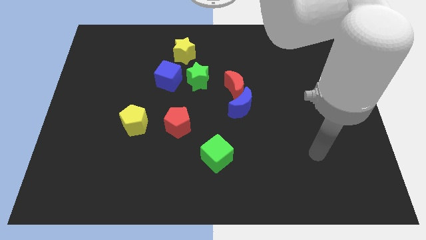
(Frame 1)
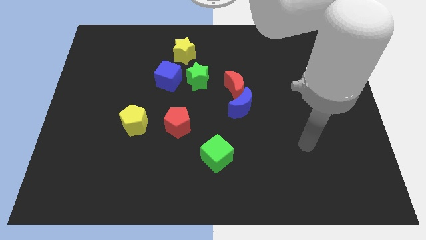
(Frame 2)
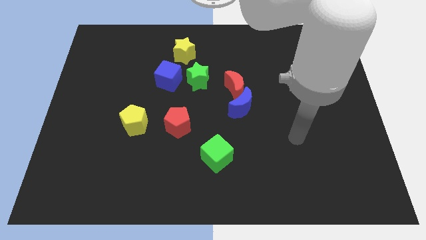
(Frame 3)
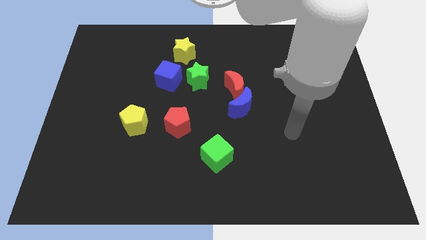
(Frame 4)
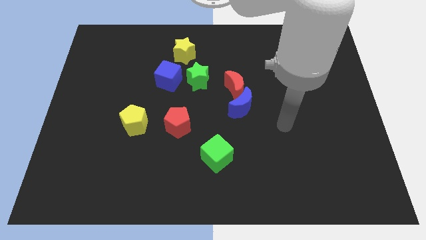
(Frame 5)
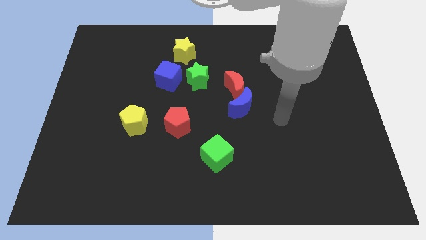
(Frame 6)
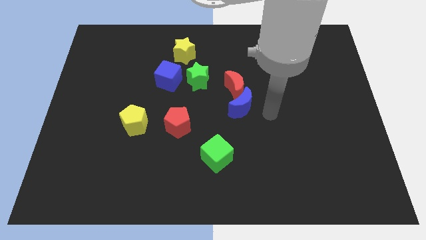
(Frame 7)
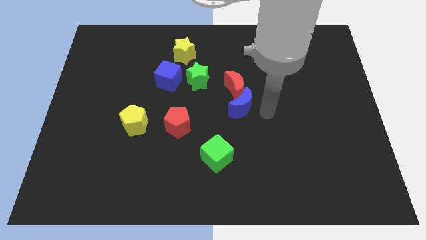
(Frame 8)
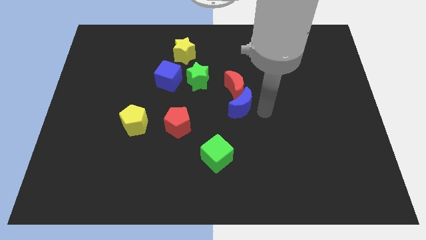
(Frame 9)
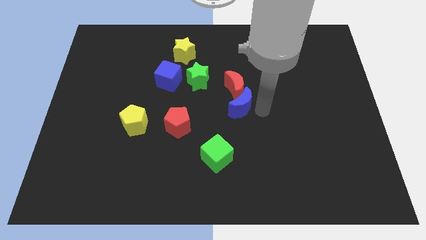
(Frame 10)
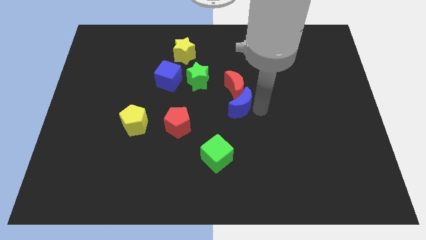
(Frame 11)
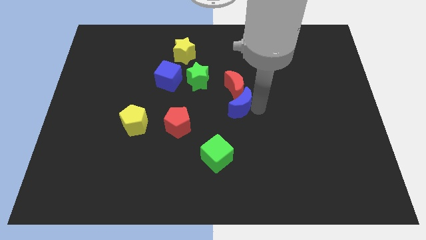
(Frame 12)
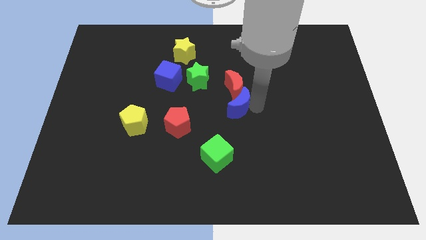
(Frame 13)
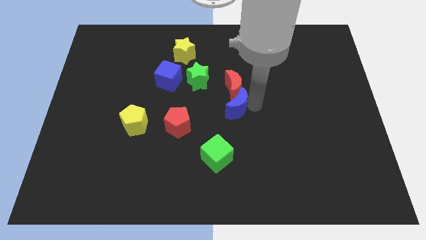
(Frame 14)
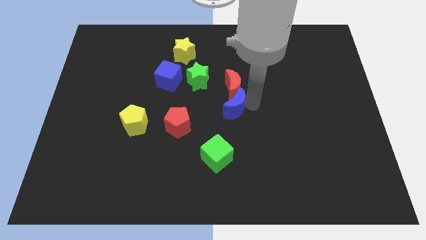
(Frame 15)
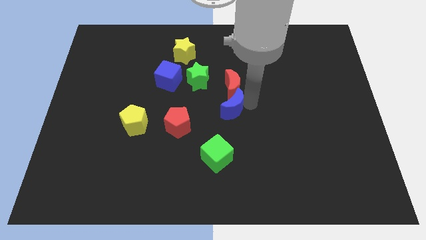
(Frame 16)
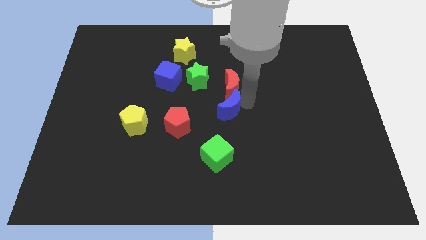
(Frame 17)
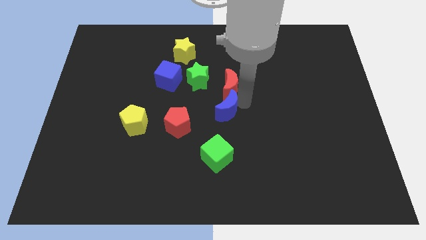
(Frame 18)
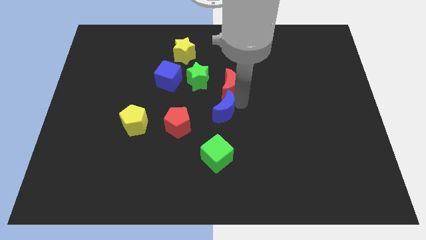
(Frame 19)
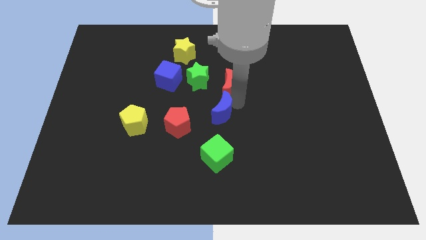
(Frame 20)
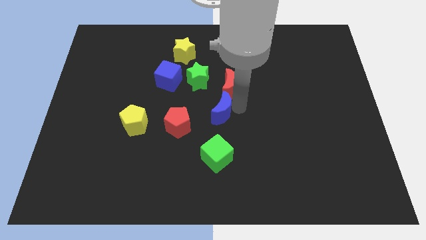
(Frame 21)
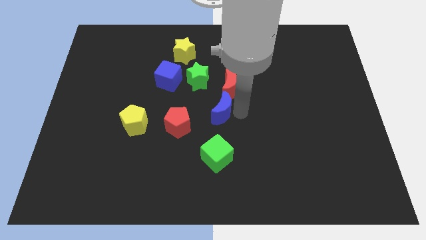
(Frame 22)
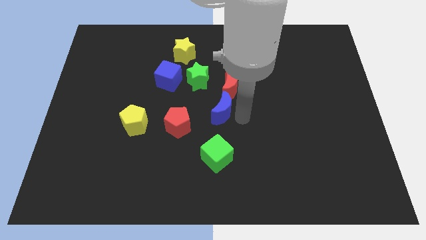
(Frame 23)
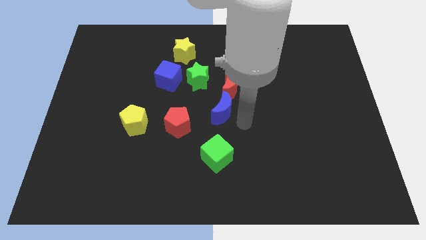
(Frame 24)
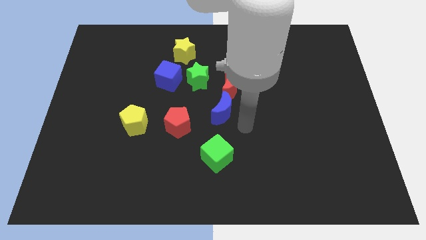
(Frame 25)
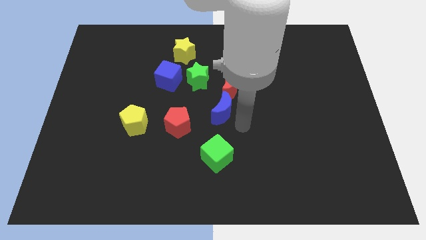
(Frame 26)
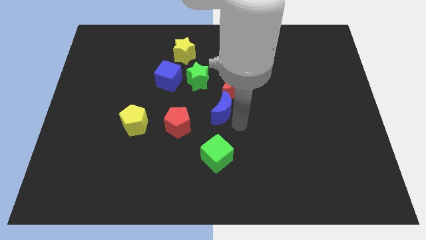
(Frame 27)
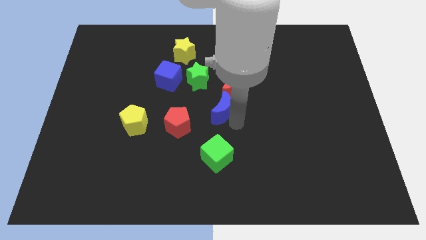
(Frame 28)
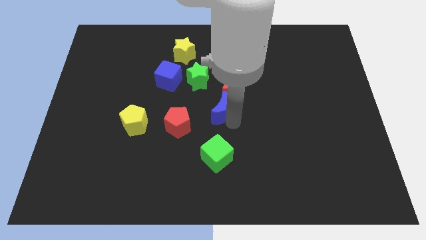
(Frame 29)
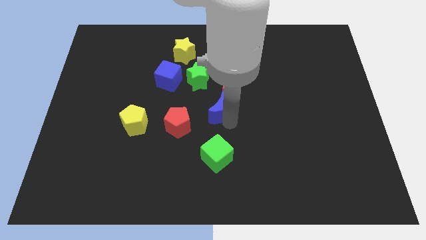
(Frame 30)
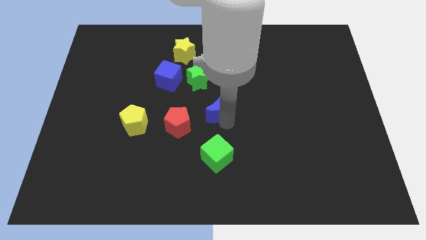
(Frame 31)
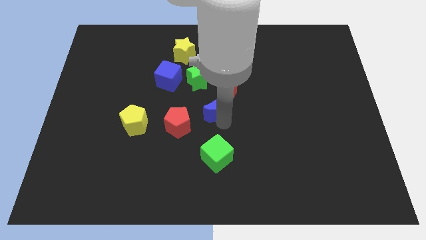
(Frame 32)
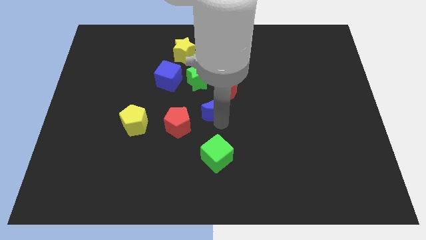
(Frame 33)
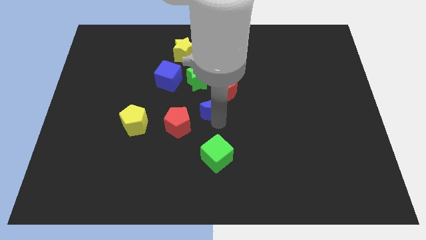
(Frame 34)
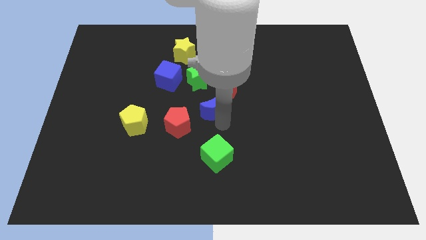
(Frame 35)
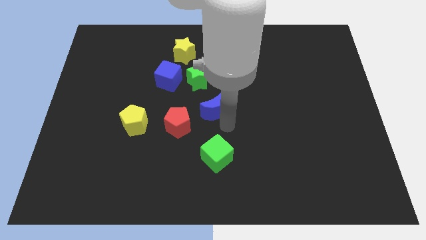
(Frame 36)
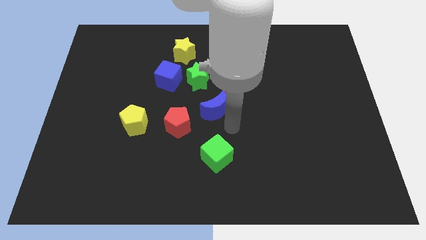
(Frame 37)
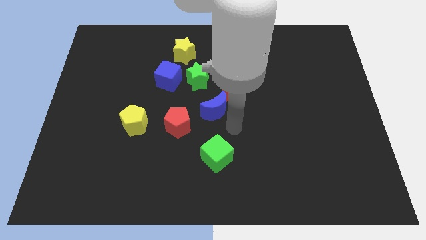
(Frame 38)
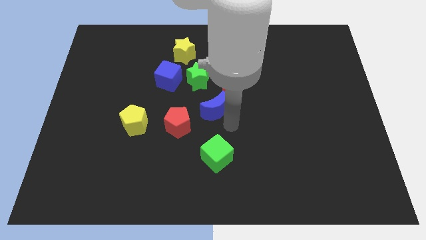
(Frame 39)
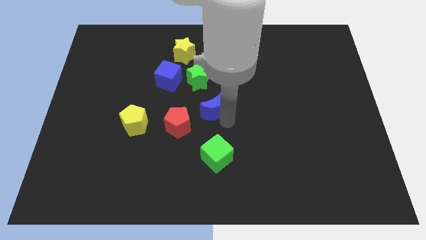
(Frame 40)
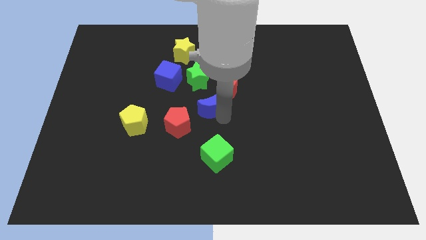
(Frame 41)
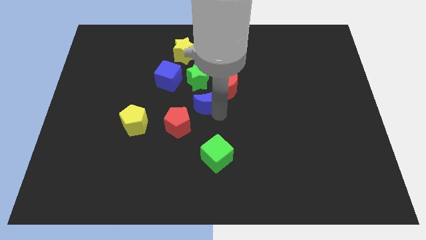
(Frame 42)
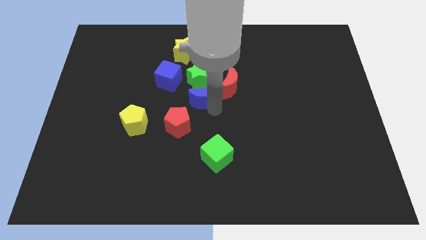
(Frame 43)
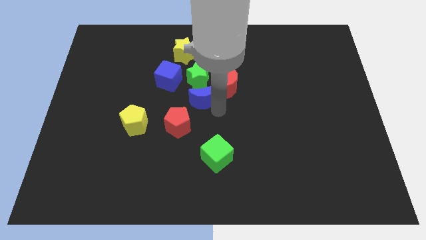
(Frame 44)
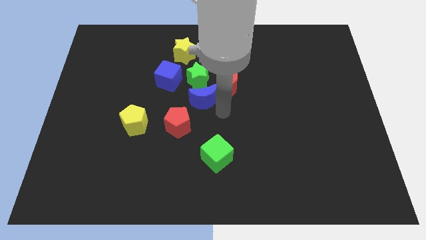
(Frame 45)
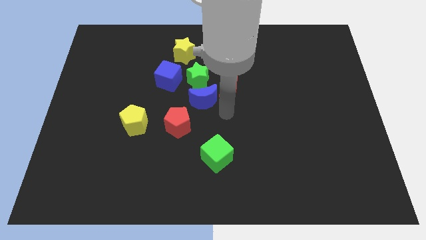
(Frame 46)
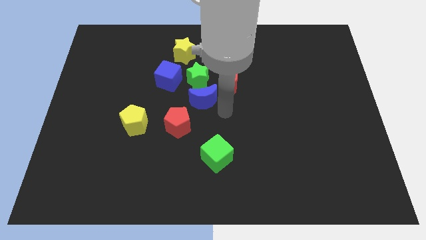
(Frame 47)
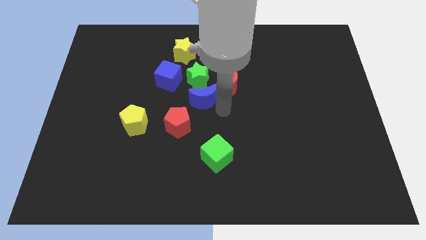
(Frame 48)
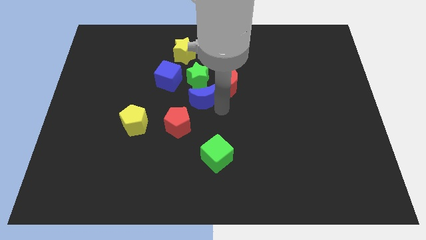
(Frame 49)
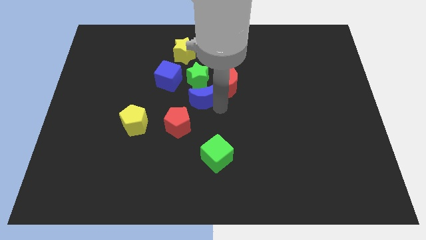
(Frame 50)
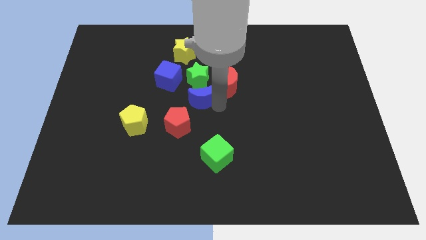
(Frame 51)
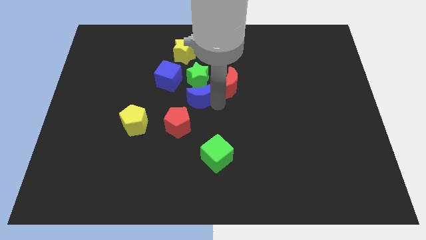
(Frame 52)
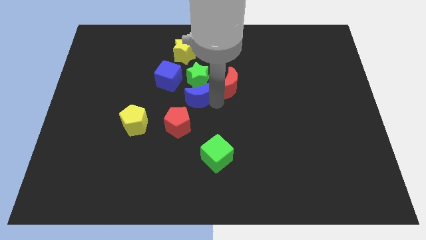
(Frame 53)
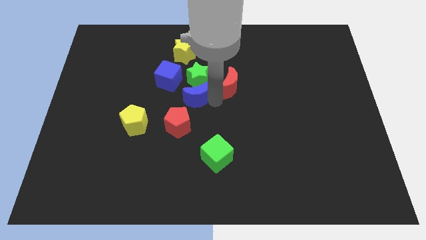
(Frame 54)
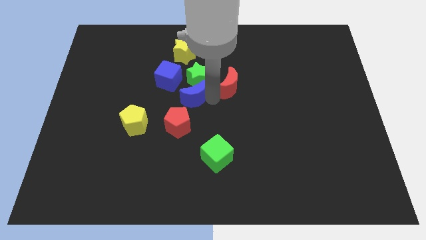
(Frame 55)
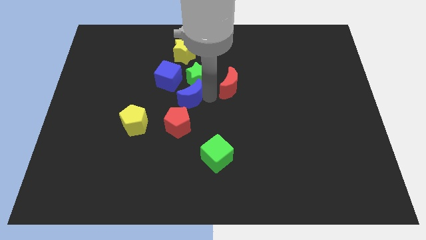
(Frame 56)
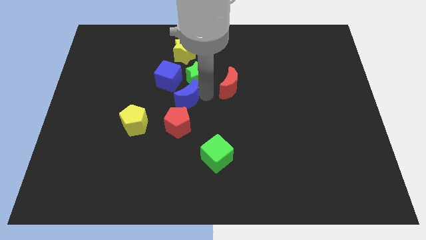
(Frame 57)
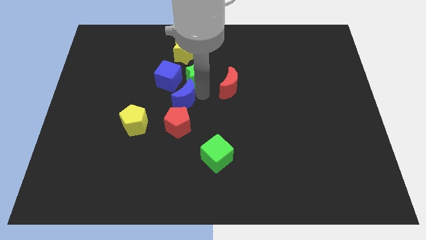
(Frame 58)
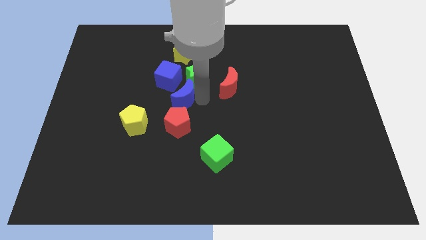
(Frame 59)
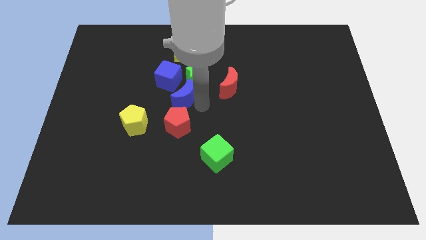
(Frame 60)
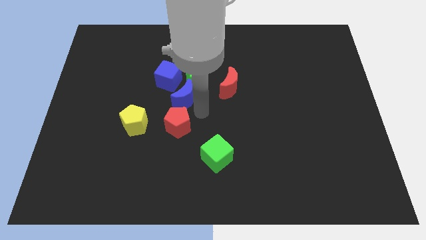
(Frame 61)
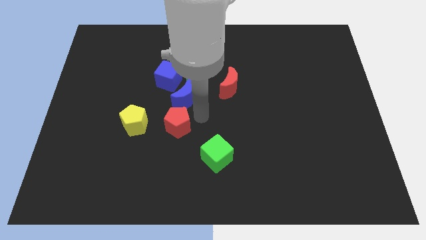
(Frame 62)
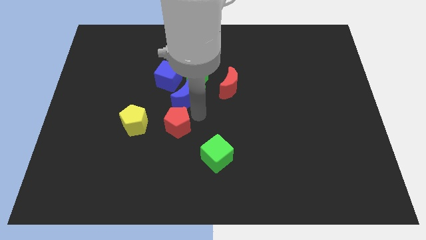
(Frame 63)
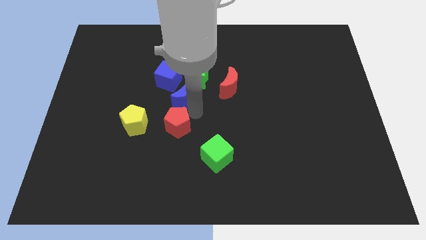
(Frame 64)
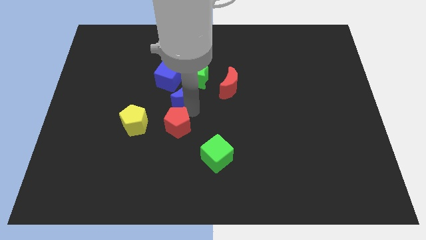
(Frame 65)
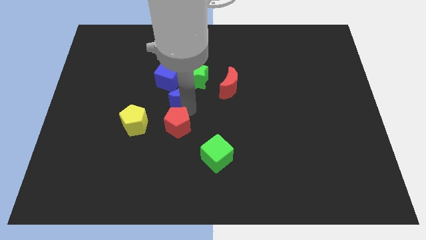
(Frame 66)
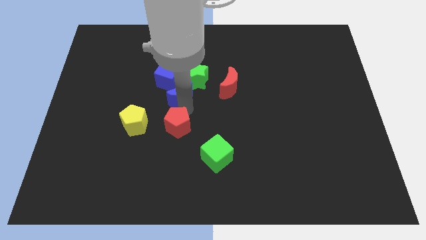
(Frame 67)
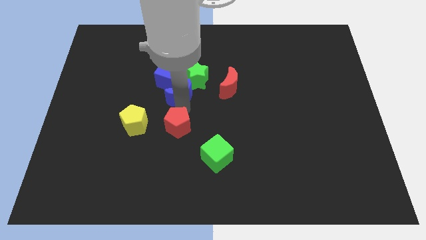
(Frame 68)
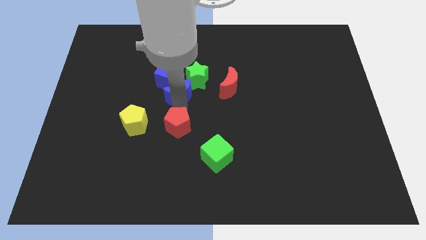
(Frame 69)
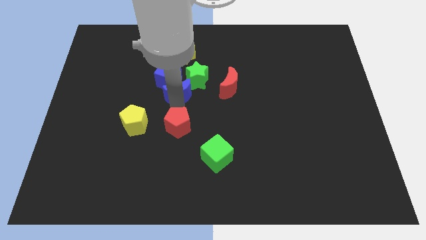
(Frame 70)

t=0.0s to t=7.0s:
push the blue moon close to the blue cube

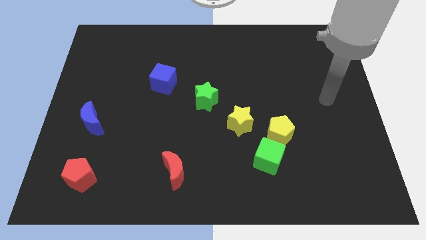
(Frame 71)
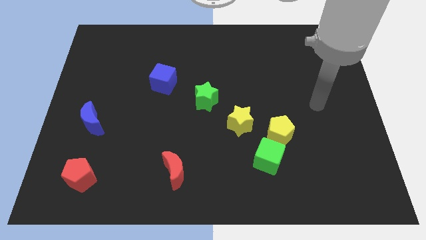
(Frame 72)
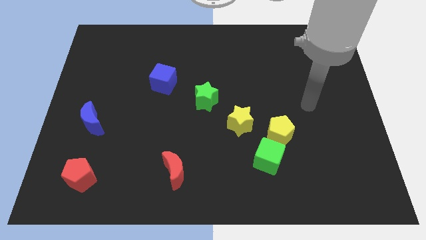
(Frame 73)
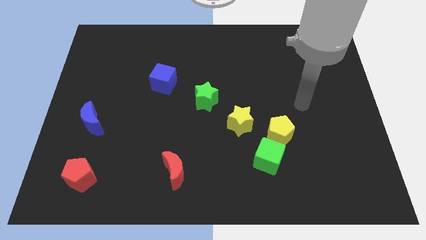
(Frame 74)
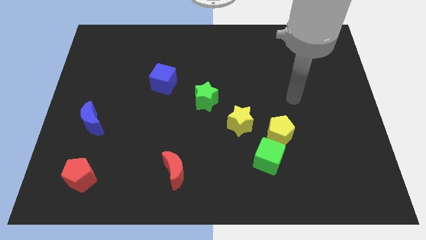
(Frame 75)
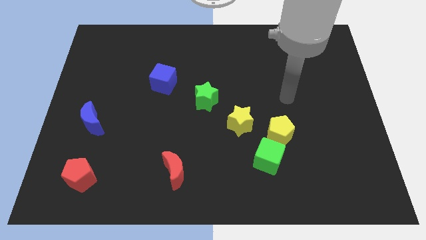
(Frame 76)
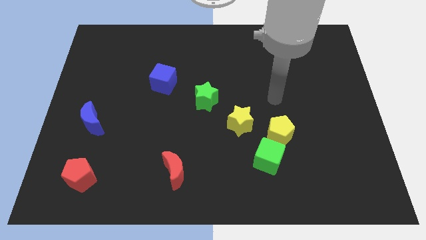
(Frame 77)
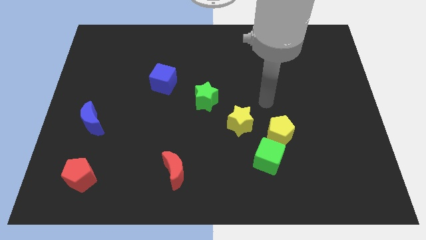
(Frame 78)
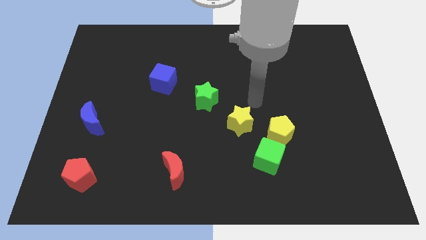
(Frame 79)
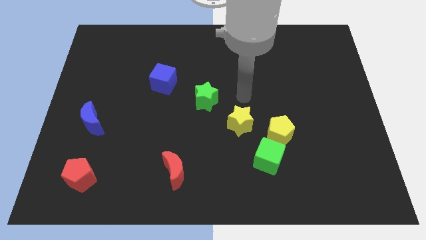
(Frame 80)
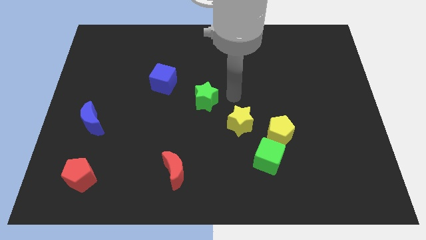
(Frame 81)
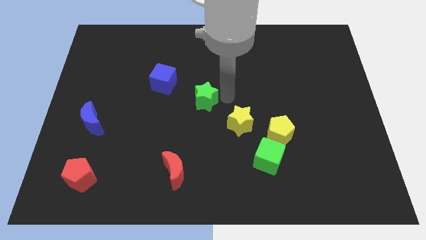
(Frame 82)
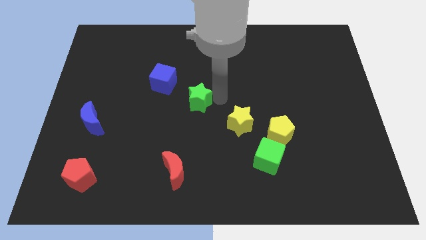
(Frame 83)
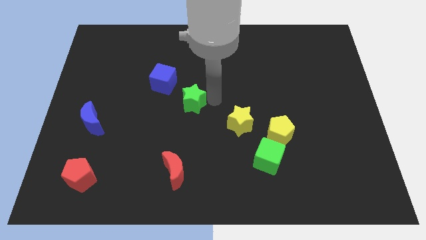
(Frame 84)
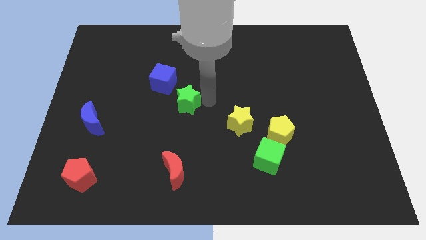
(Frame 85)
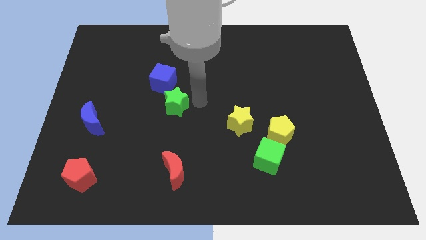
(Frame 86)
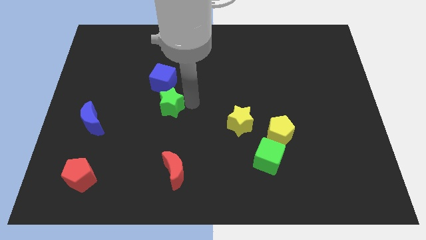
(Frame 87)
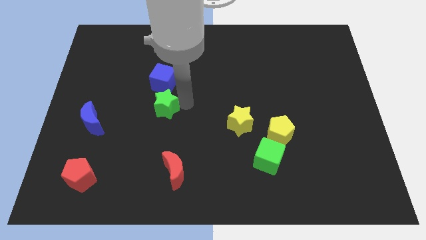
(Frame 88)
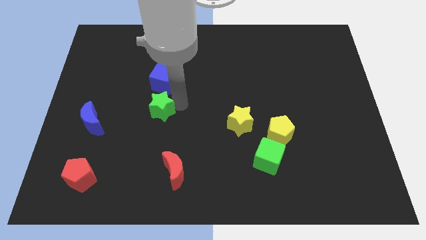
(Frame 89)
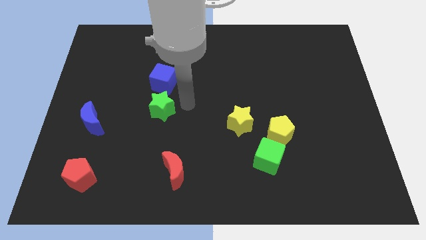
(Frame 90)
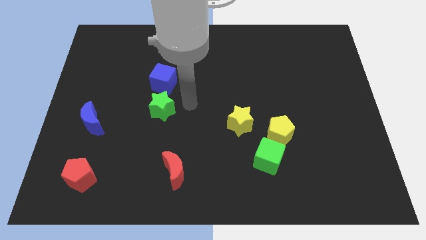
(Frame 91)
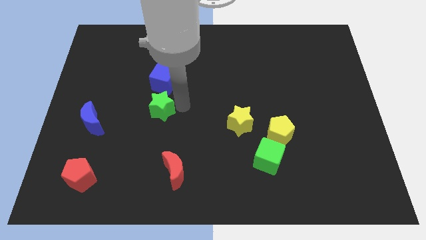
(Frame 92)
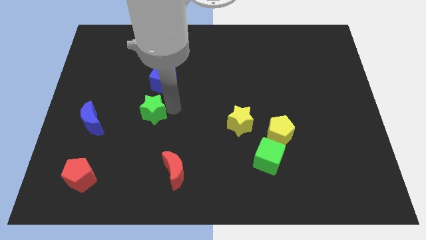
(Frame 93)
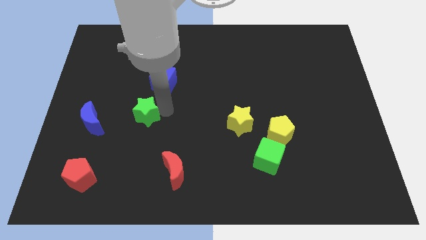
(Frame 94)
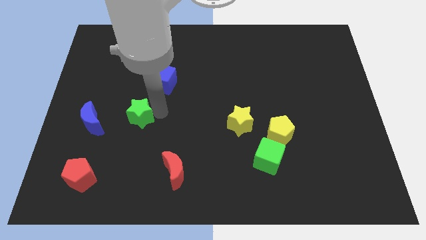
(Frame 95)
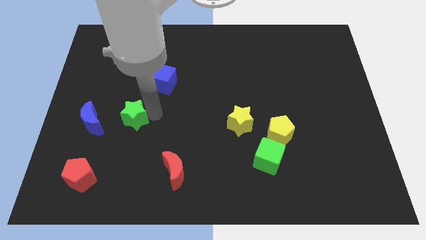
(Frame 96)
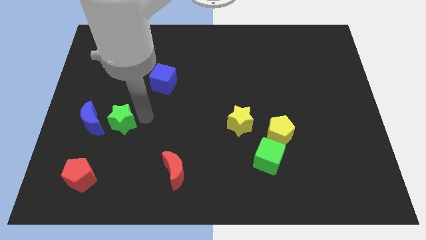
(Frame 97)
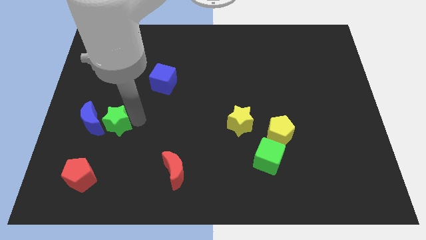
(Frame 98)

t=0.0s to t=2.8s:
put the green star towards the blue moon
